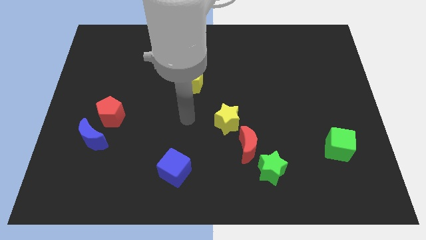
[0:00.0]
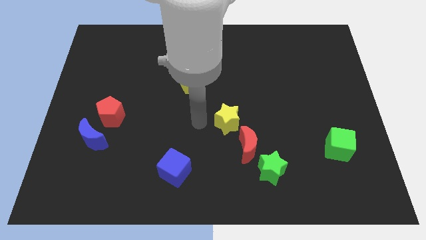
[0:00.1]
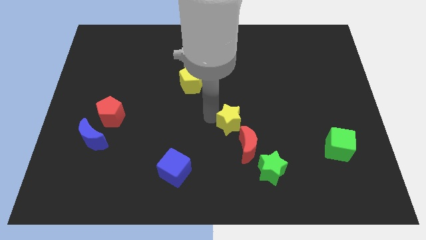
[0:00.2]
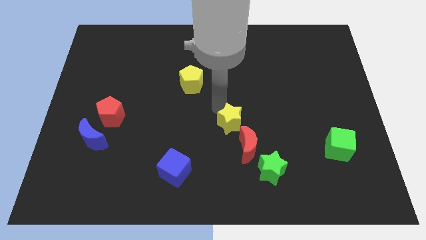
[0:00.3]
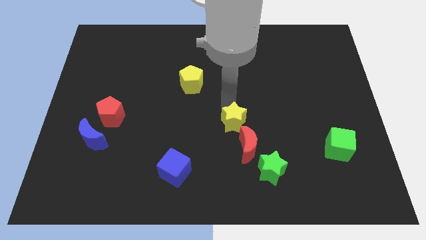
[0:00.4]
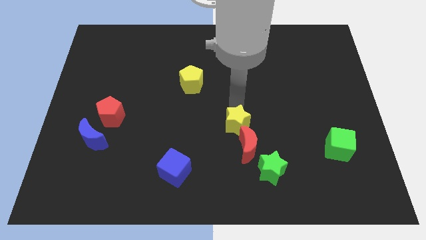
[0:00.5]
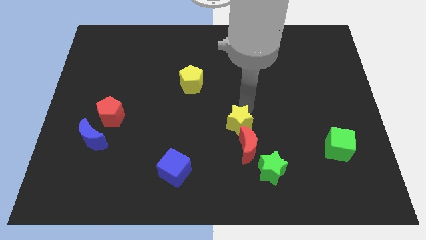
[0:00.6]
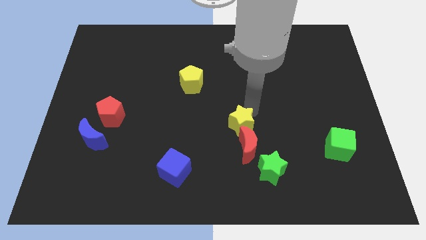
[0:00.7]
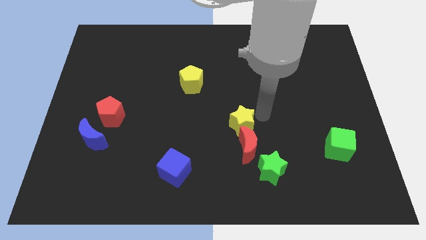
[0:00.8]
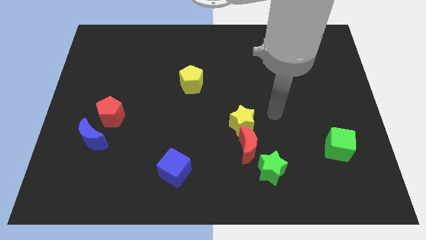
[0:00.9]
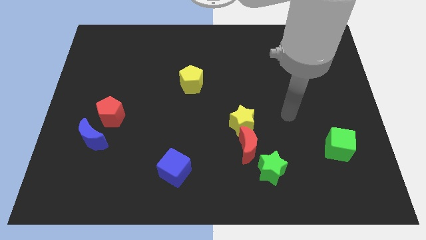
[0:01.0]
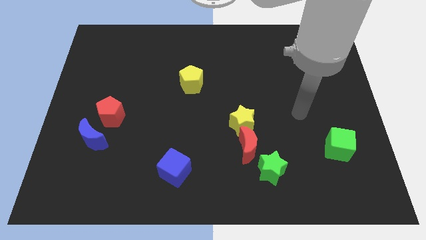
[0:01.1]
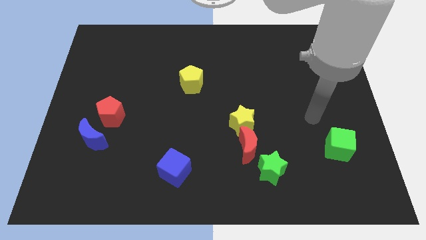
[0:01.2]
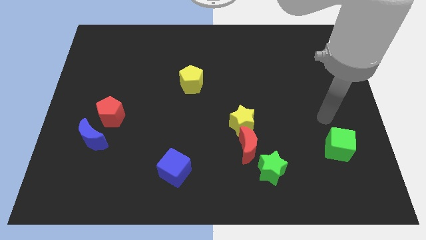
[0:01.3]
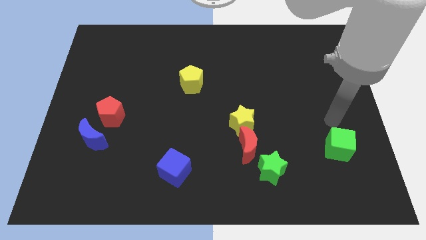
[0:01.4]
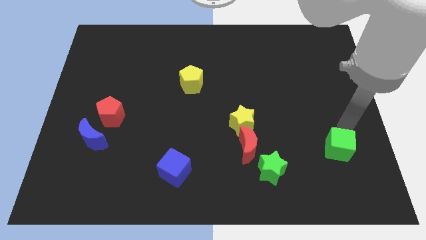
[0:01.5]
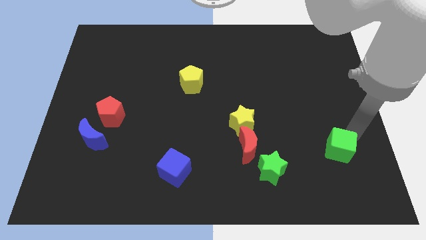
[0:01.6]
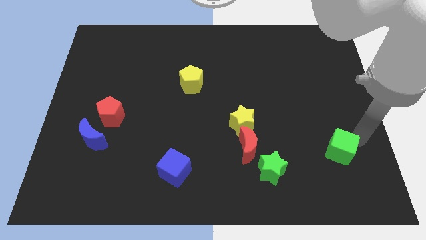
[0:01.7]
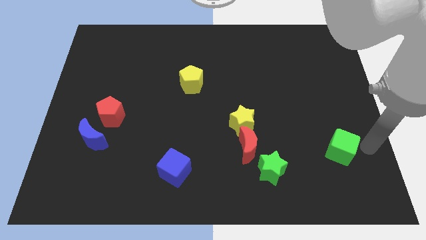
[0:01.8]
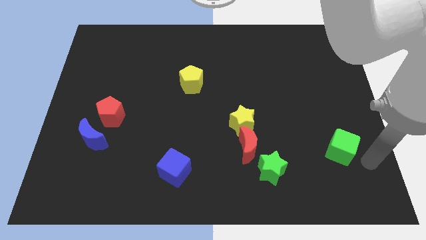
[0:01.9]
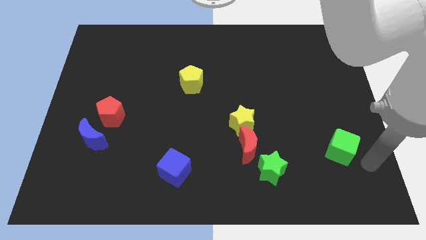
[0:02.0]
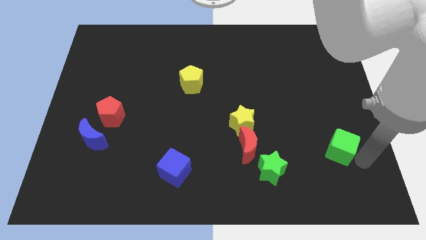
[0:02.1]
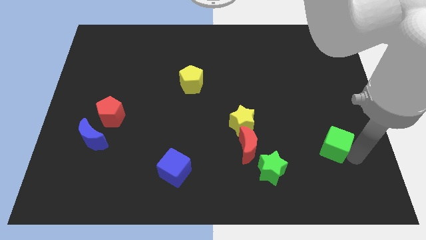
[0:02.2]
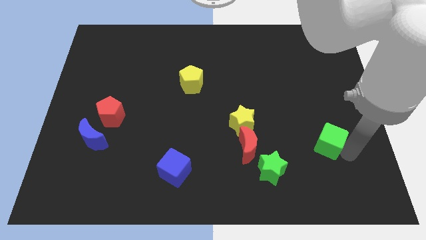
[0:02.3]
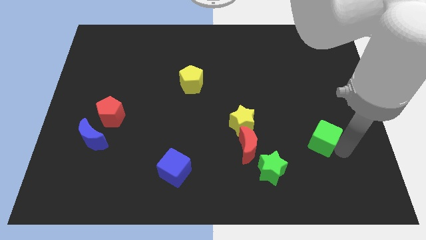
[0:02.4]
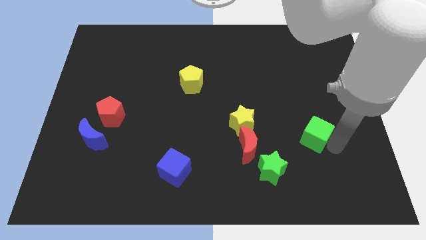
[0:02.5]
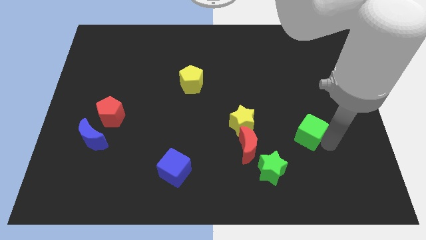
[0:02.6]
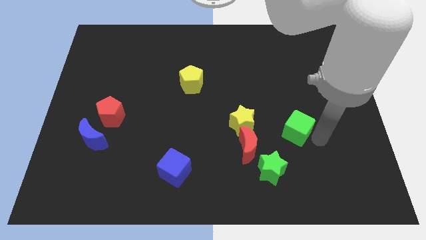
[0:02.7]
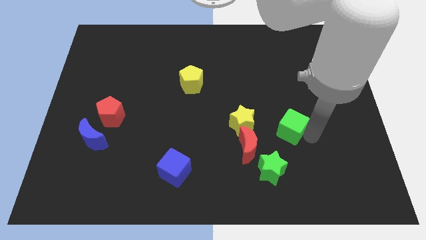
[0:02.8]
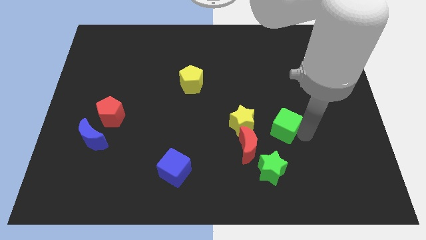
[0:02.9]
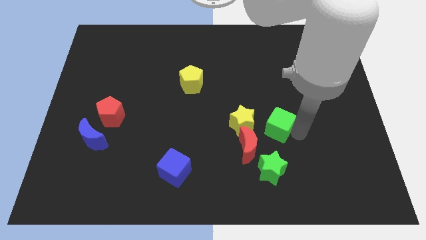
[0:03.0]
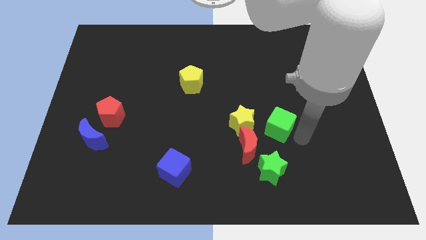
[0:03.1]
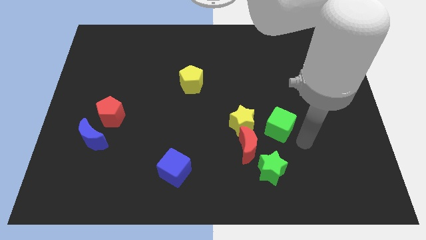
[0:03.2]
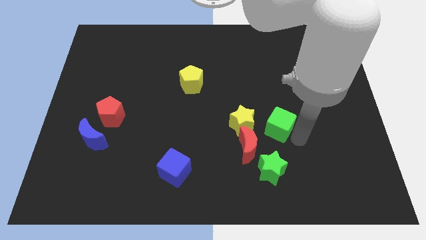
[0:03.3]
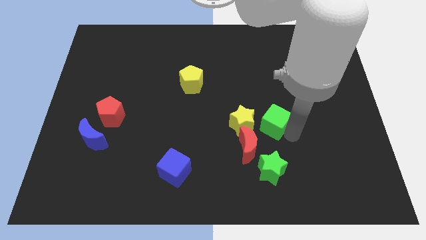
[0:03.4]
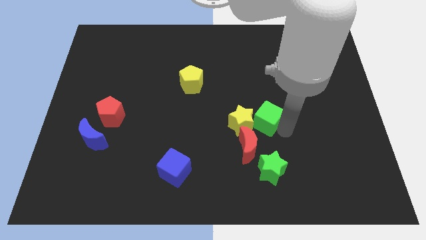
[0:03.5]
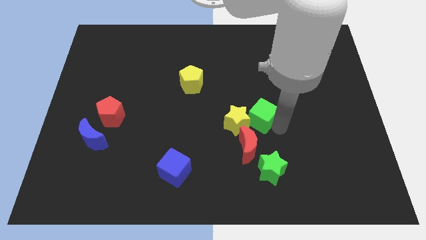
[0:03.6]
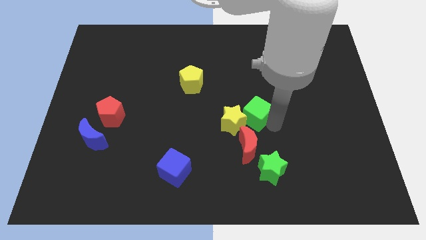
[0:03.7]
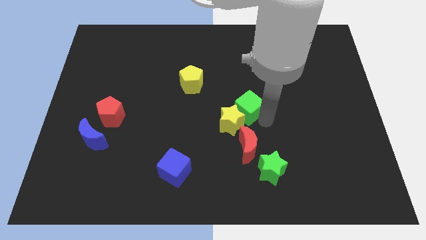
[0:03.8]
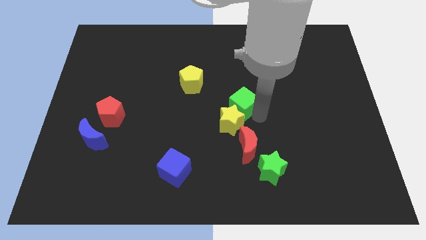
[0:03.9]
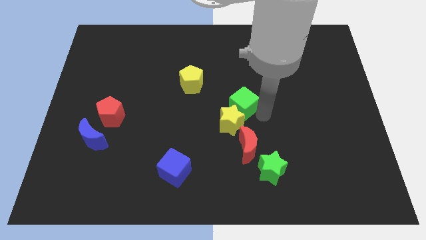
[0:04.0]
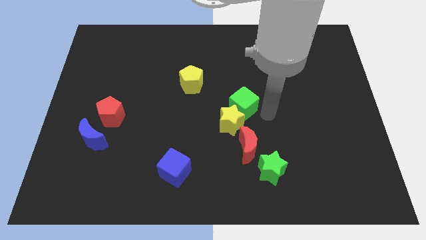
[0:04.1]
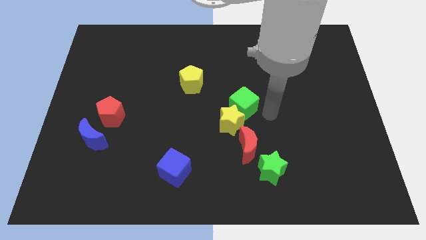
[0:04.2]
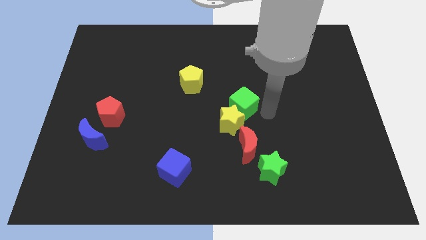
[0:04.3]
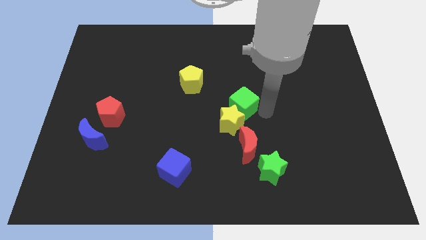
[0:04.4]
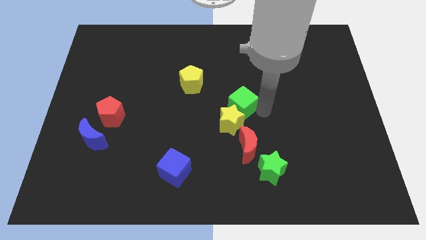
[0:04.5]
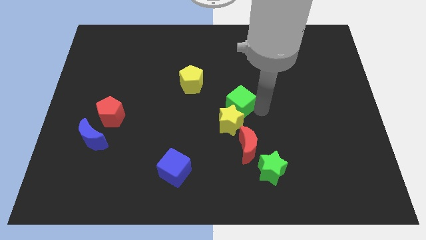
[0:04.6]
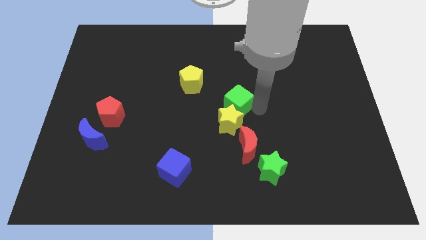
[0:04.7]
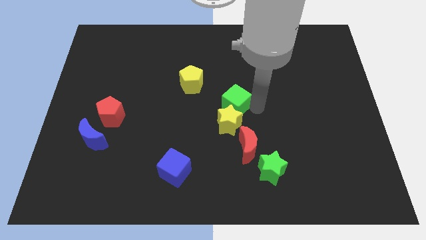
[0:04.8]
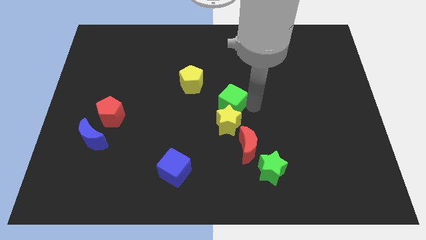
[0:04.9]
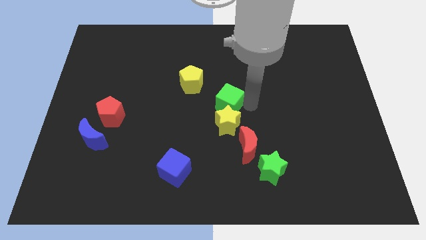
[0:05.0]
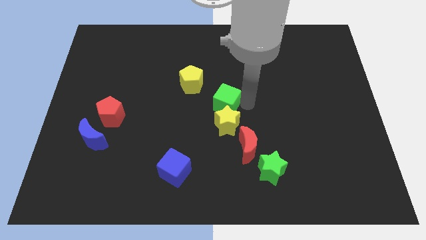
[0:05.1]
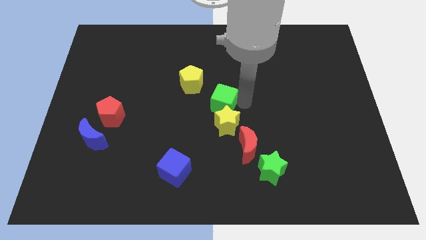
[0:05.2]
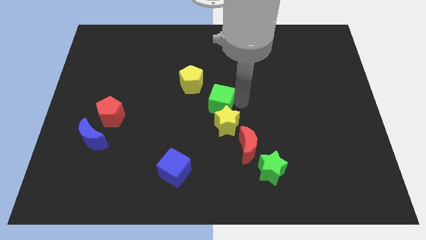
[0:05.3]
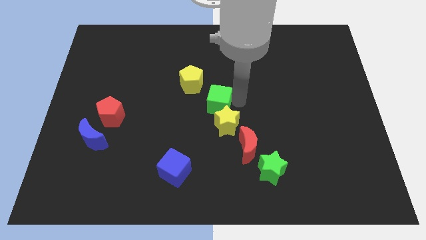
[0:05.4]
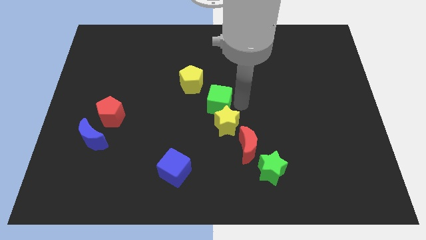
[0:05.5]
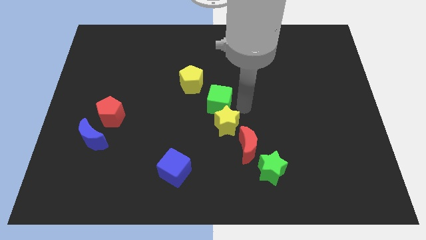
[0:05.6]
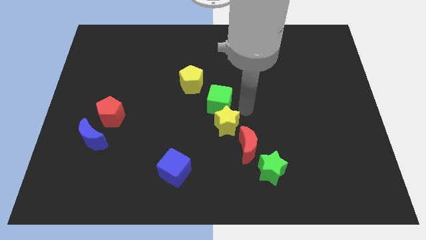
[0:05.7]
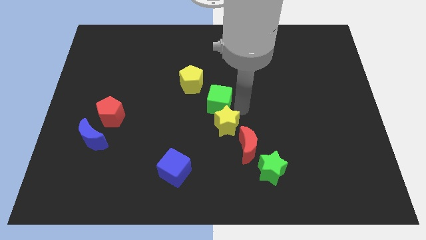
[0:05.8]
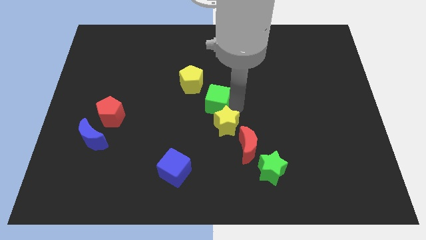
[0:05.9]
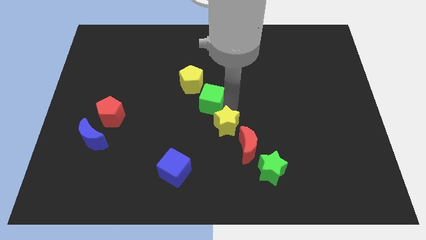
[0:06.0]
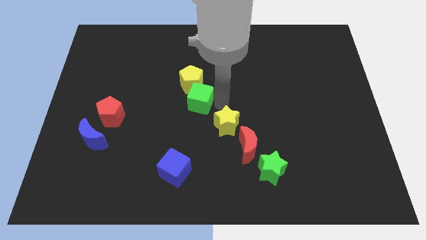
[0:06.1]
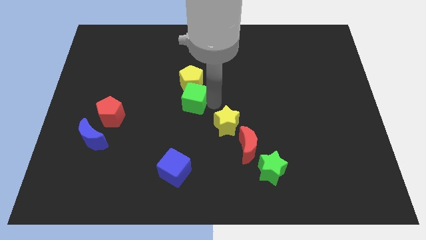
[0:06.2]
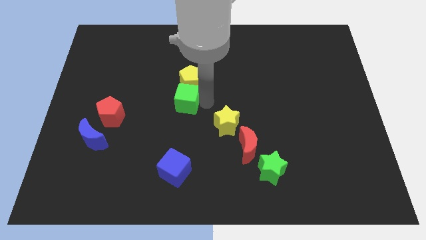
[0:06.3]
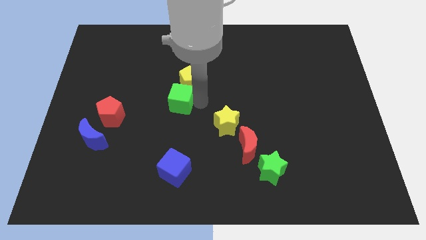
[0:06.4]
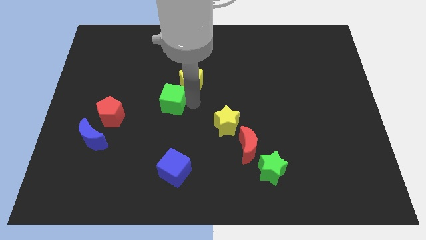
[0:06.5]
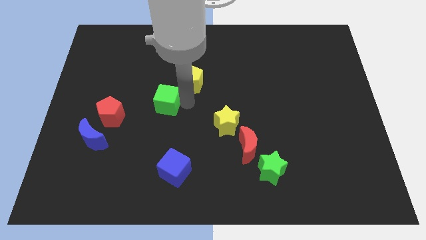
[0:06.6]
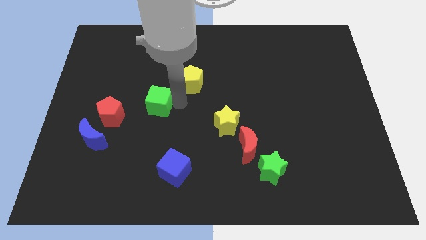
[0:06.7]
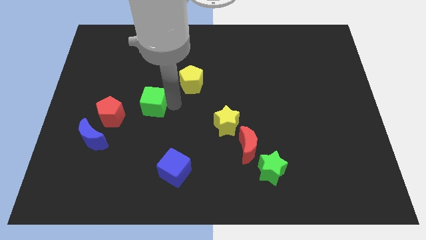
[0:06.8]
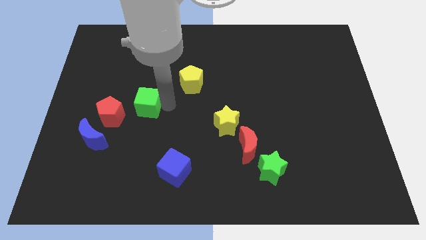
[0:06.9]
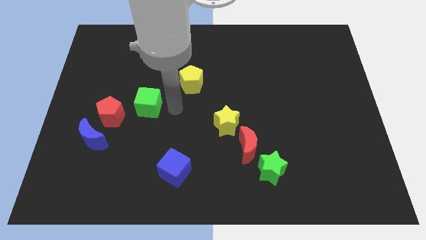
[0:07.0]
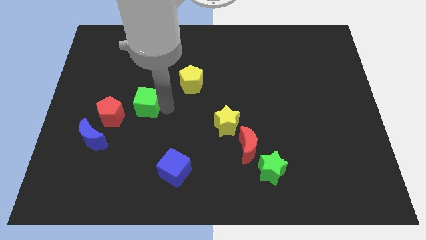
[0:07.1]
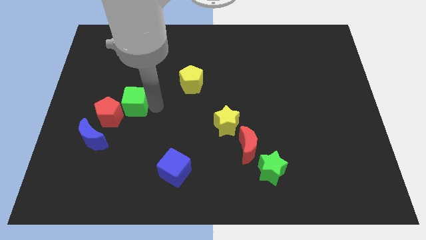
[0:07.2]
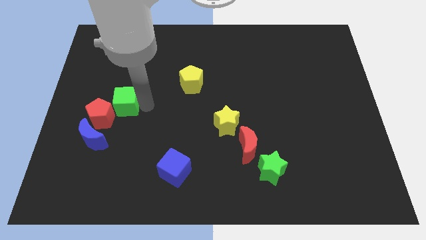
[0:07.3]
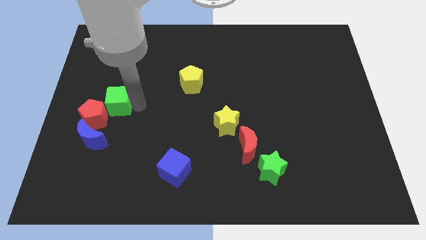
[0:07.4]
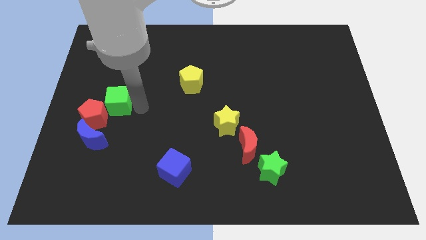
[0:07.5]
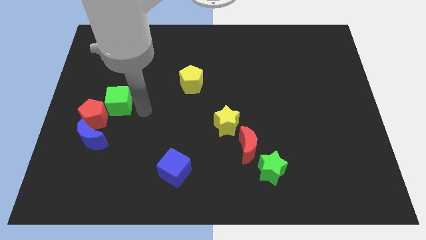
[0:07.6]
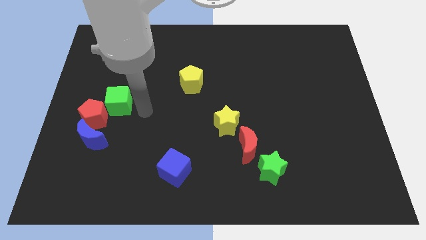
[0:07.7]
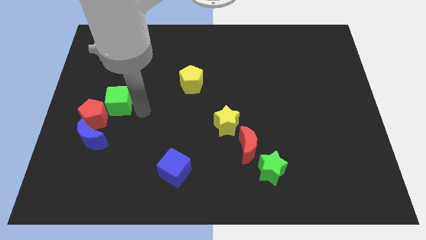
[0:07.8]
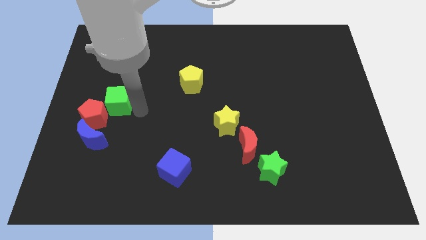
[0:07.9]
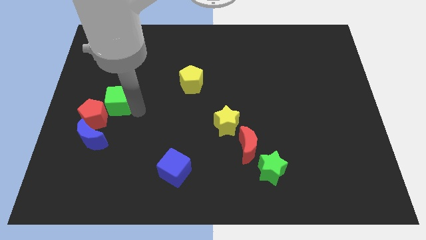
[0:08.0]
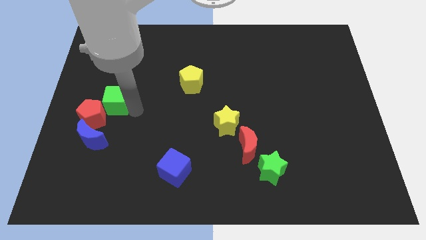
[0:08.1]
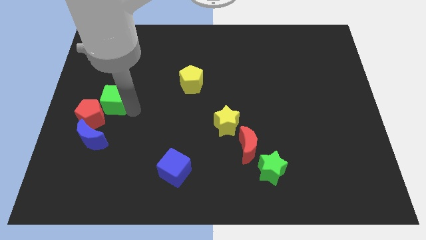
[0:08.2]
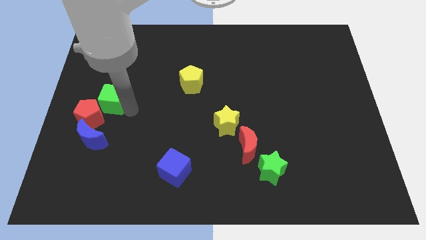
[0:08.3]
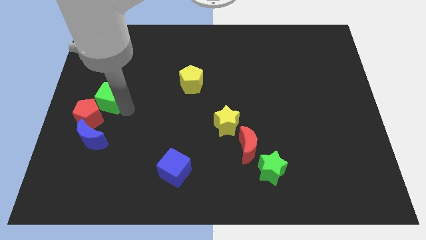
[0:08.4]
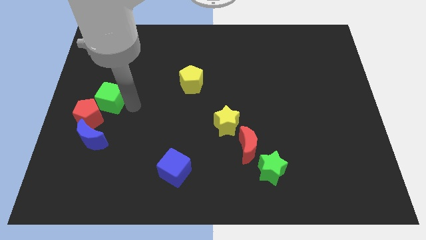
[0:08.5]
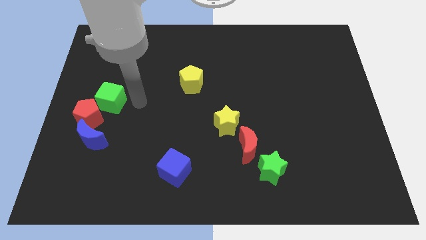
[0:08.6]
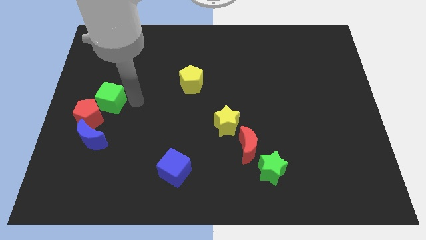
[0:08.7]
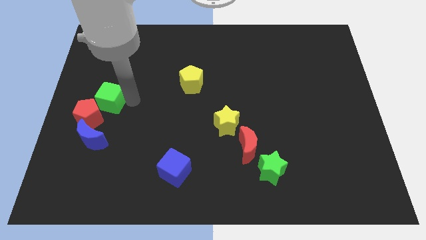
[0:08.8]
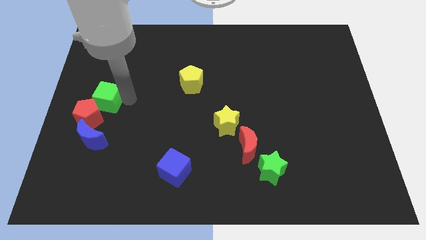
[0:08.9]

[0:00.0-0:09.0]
push the green cube to the left side
